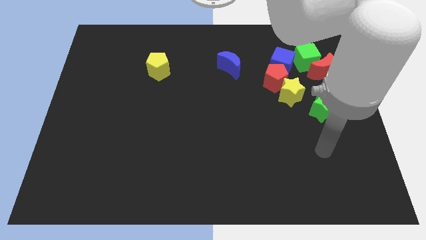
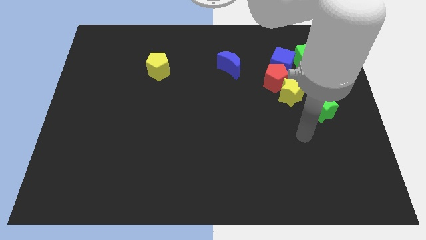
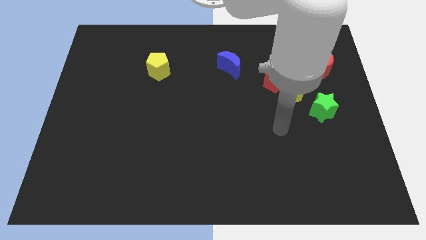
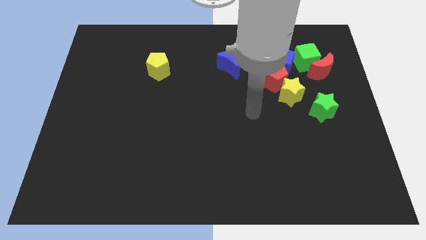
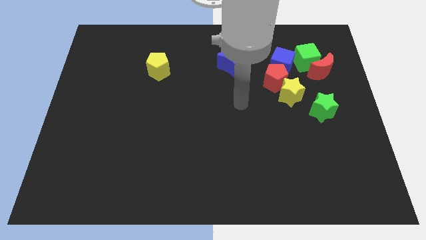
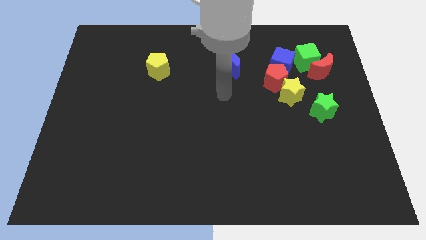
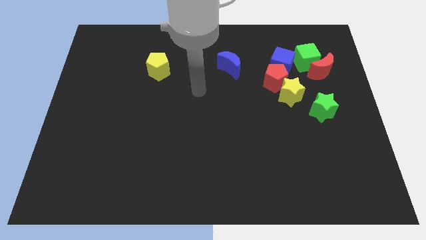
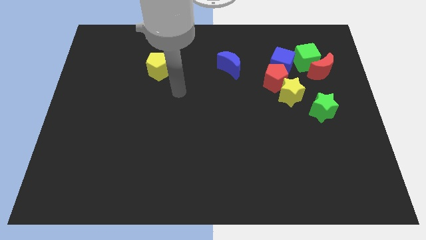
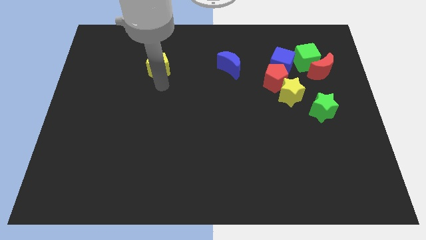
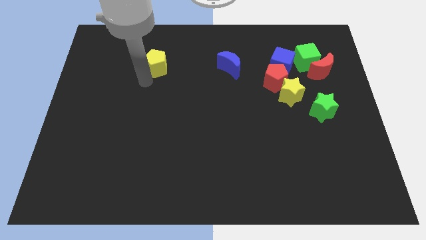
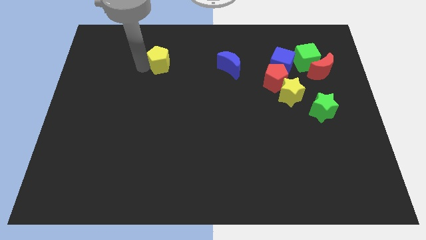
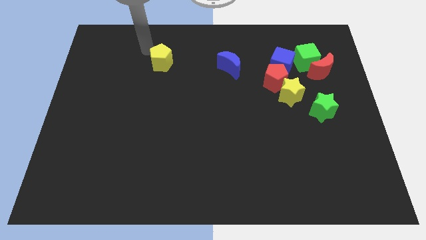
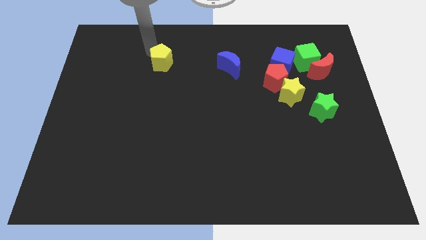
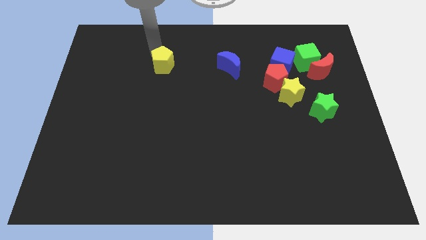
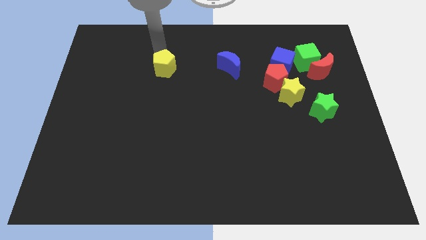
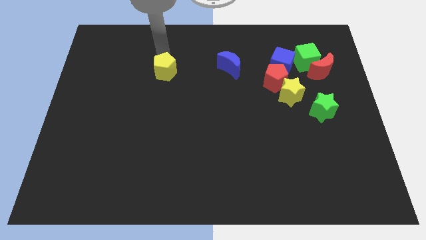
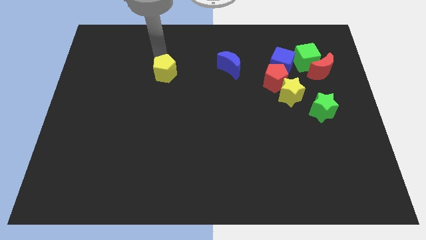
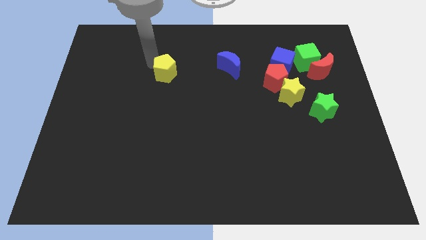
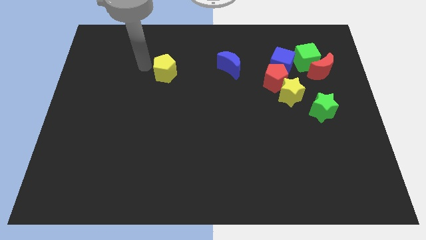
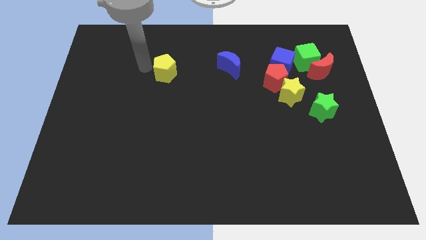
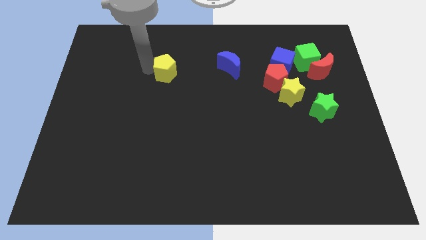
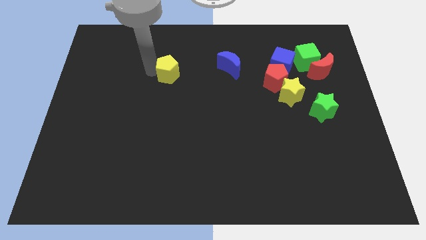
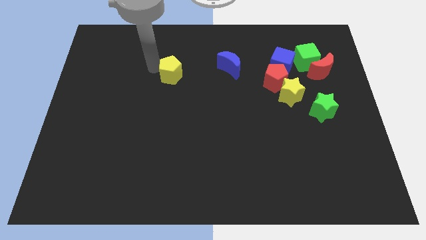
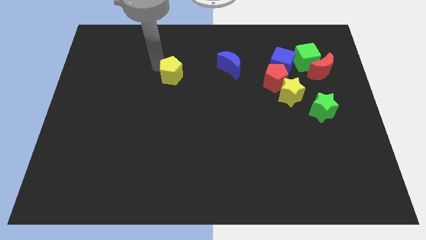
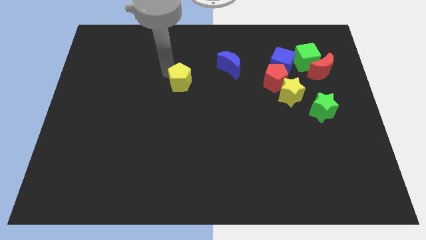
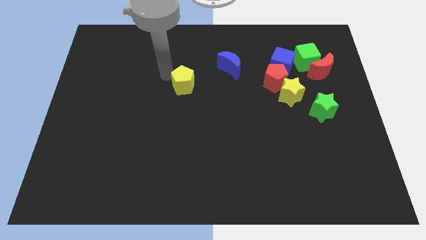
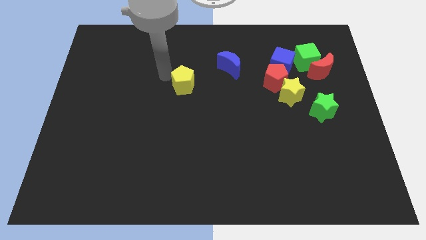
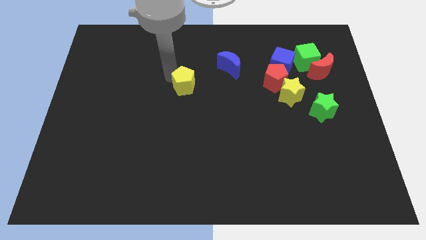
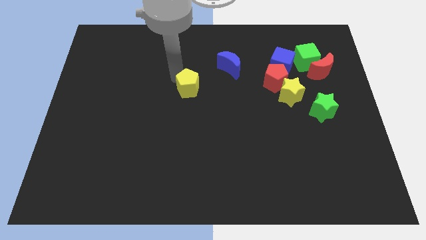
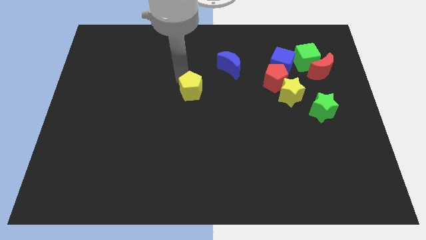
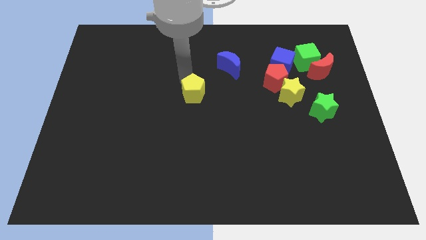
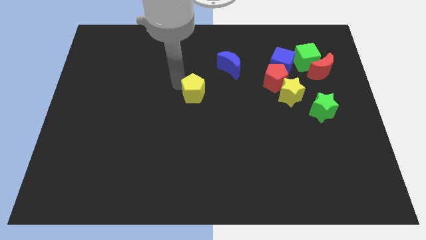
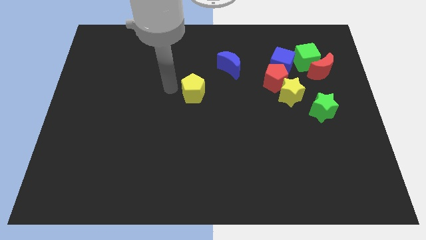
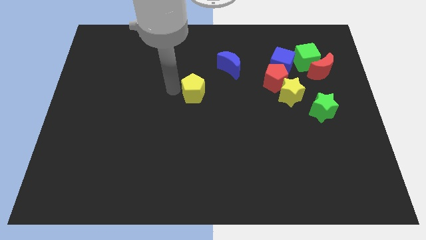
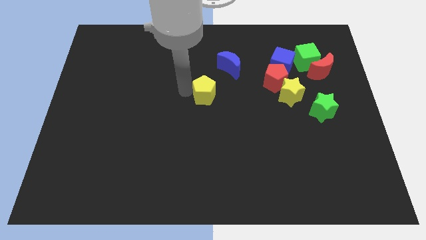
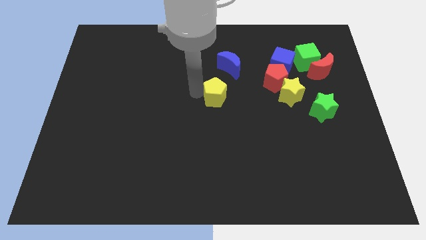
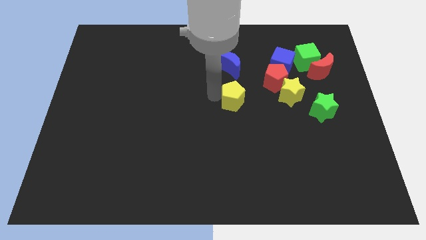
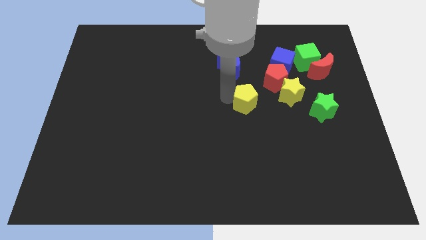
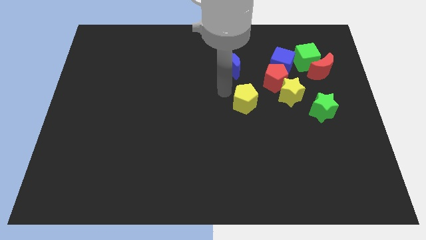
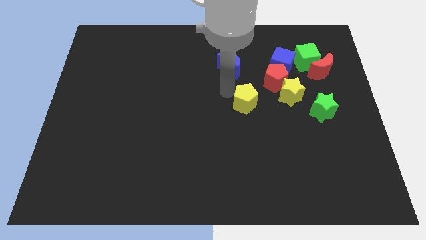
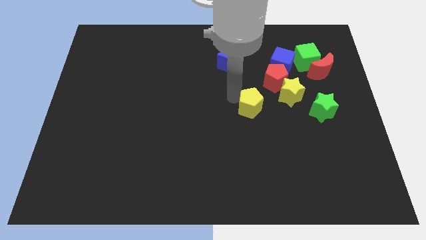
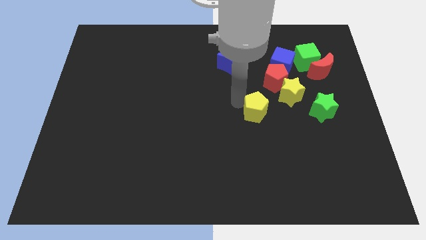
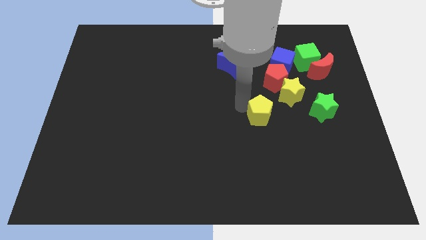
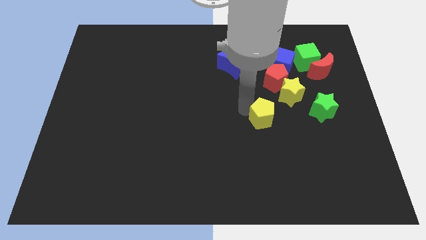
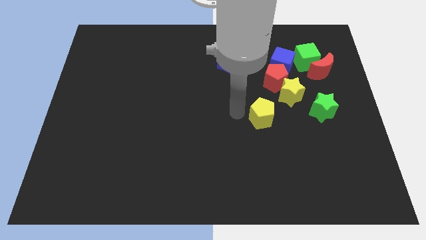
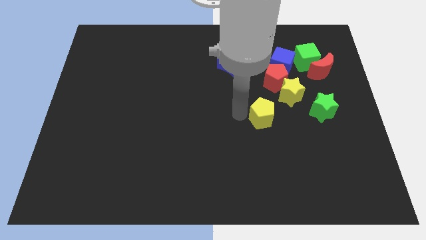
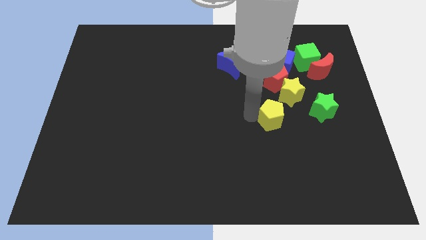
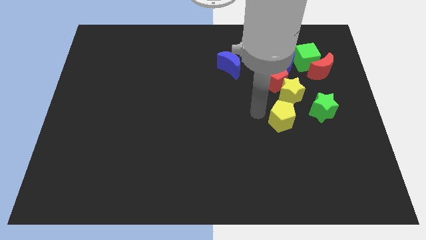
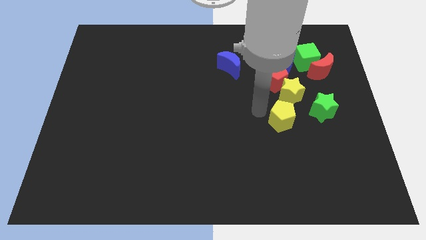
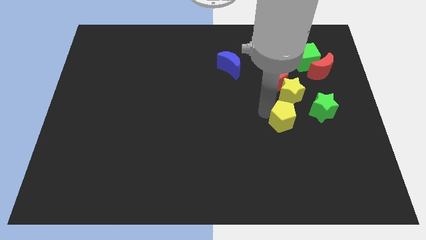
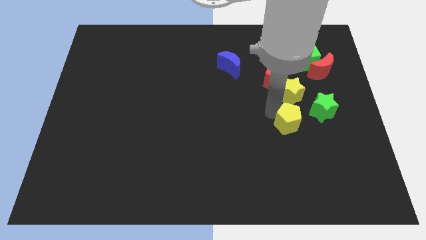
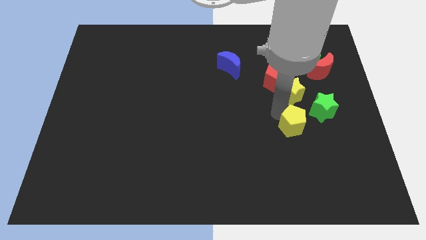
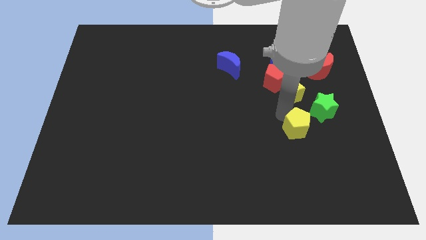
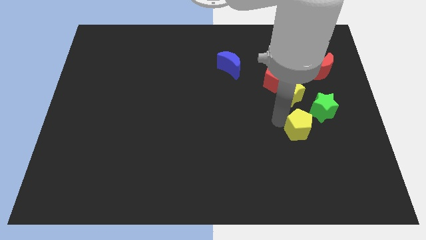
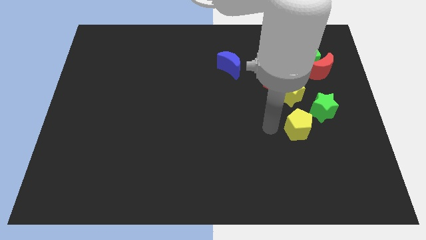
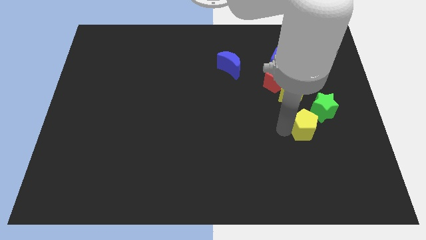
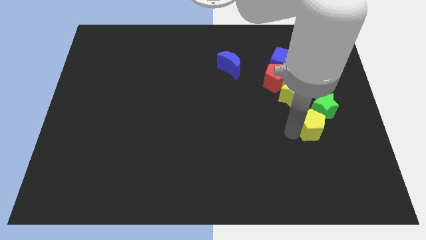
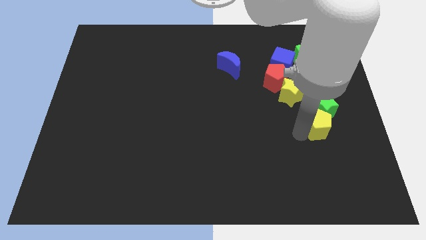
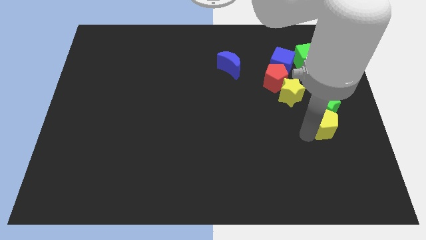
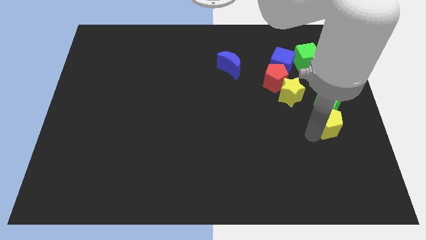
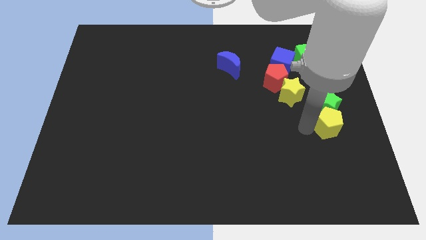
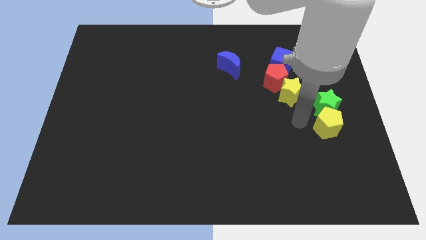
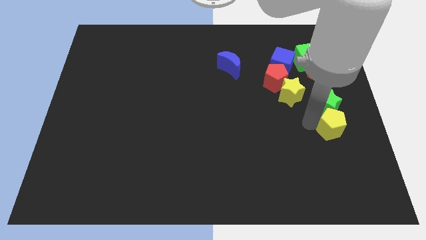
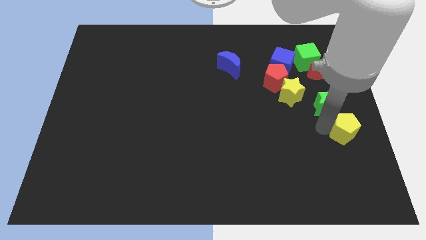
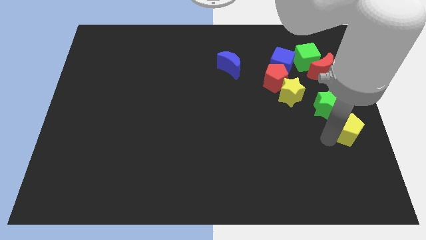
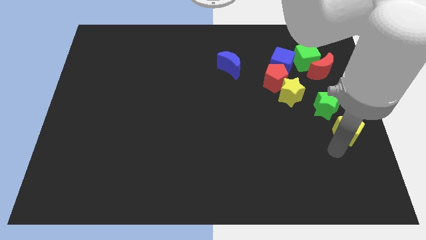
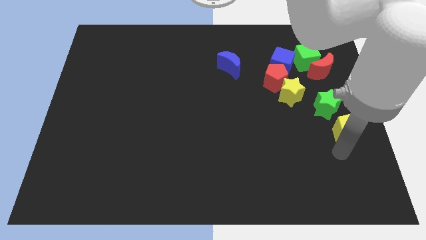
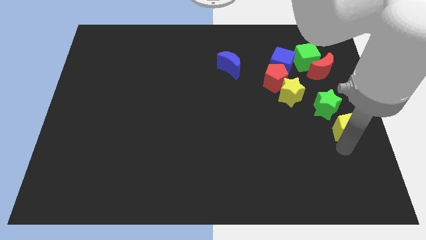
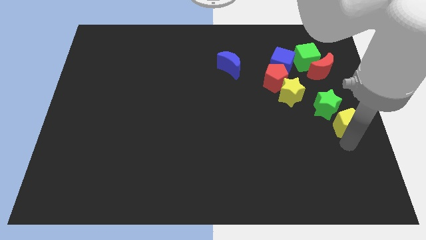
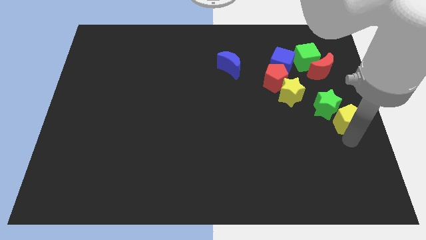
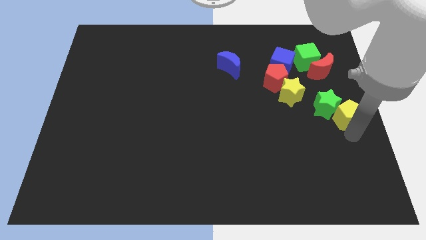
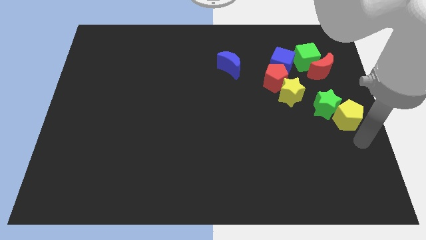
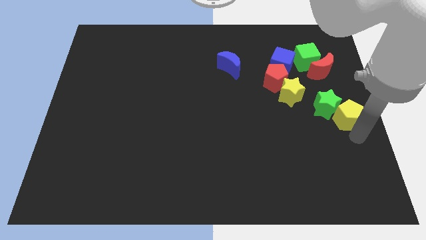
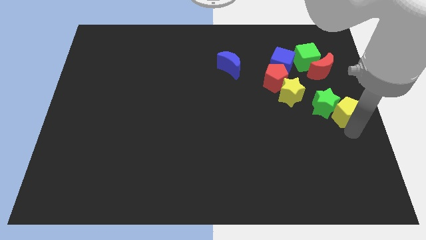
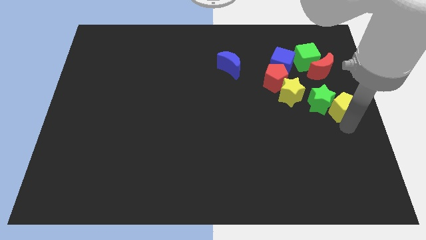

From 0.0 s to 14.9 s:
slide the yellow pentagon right of the yellow star
